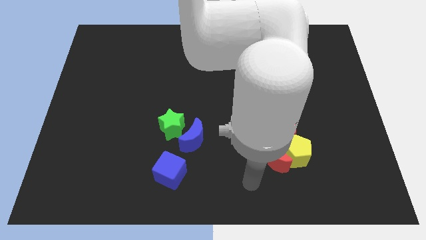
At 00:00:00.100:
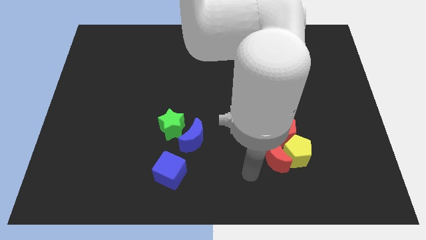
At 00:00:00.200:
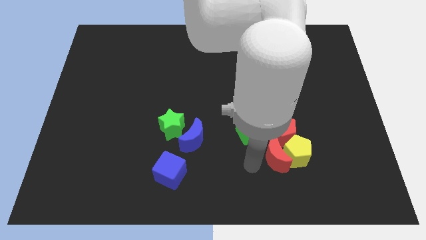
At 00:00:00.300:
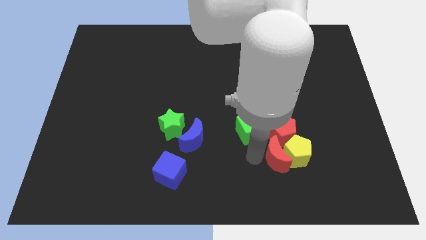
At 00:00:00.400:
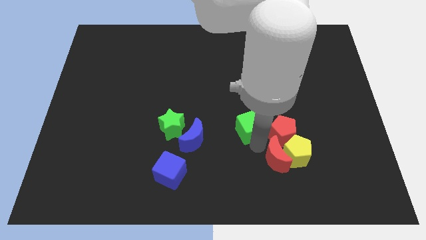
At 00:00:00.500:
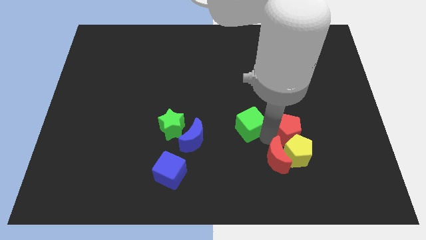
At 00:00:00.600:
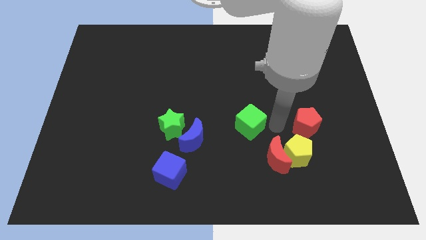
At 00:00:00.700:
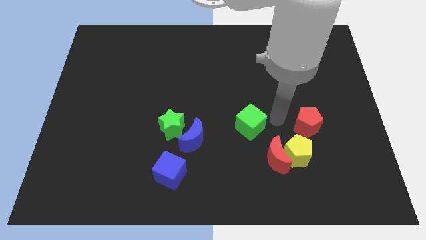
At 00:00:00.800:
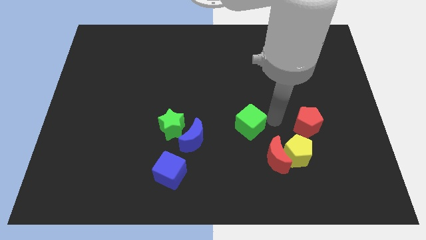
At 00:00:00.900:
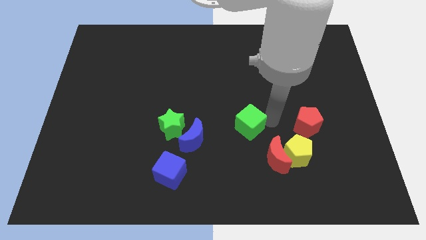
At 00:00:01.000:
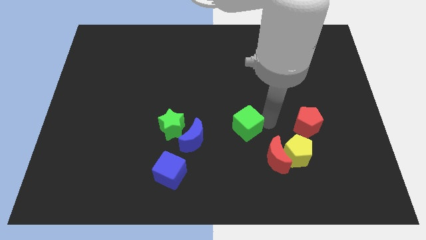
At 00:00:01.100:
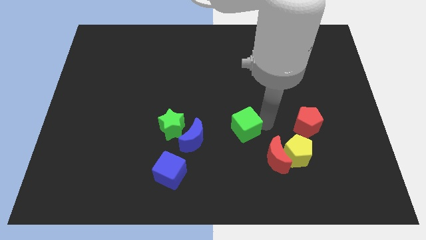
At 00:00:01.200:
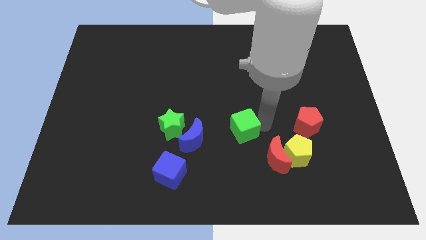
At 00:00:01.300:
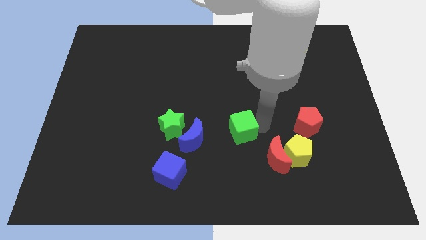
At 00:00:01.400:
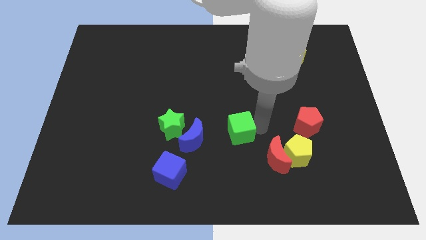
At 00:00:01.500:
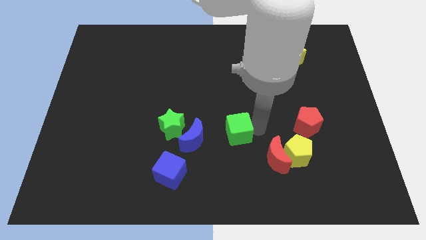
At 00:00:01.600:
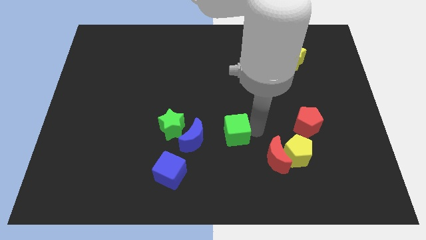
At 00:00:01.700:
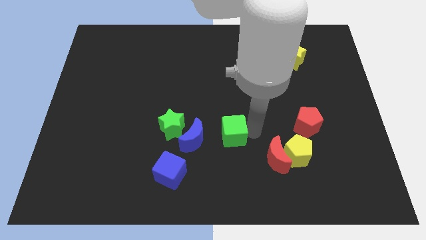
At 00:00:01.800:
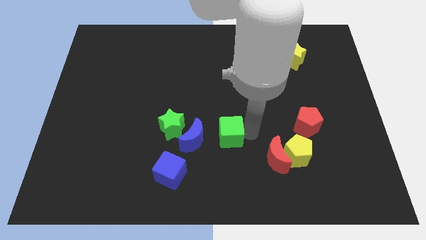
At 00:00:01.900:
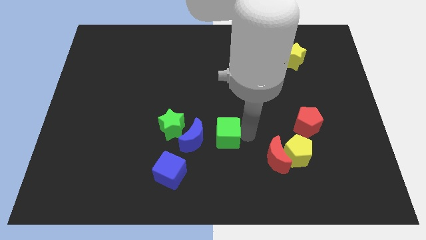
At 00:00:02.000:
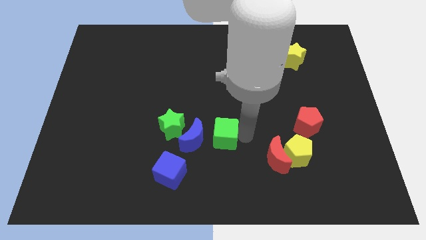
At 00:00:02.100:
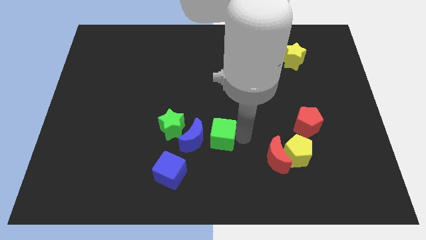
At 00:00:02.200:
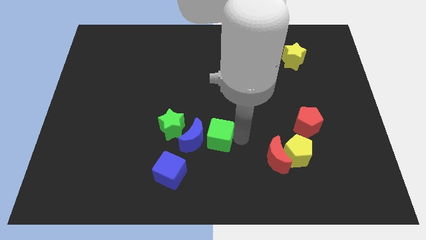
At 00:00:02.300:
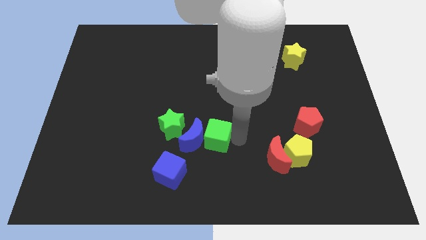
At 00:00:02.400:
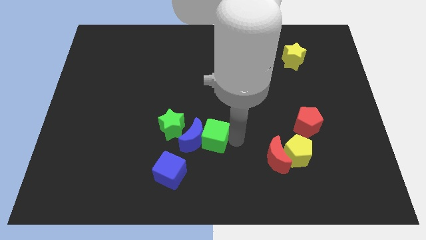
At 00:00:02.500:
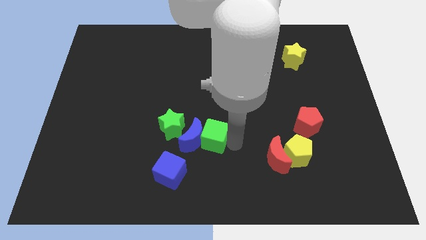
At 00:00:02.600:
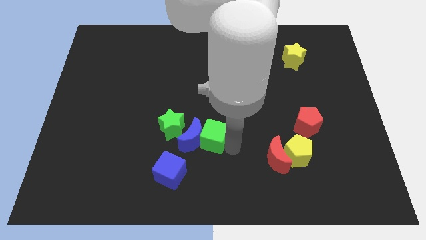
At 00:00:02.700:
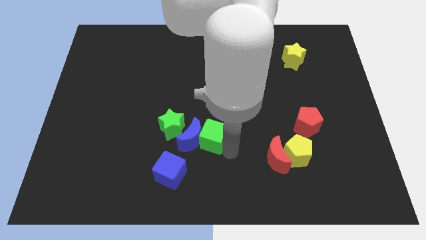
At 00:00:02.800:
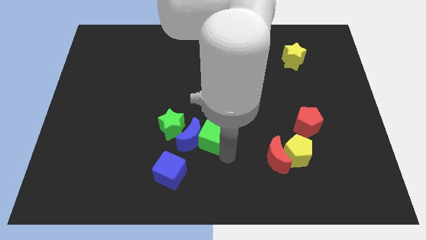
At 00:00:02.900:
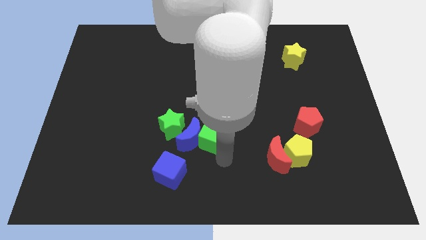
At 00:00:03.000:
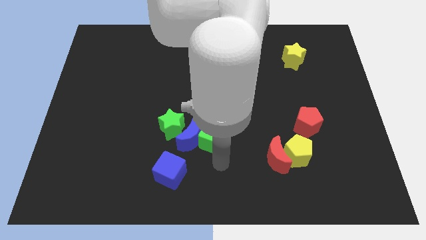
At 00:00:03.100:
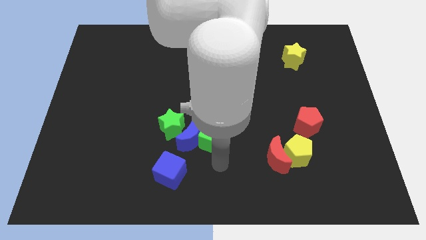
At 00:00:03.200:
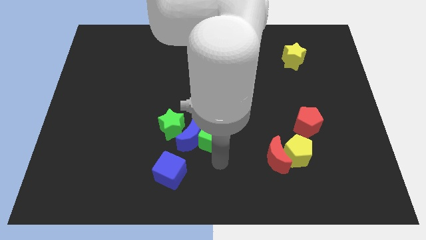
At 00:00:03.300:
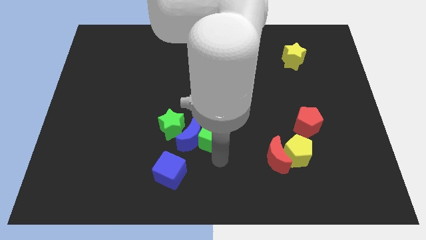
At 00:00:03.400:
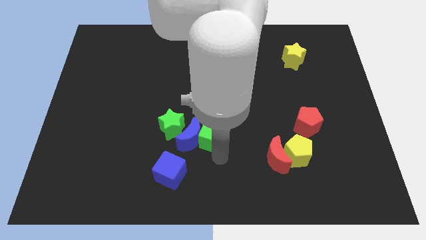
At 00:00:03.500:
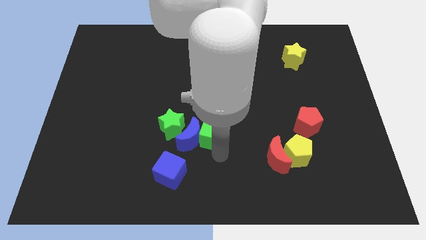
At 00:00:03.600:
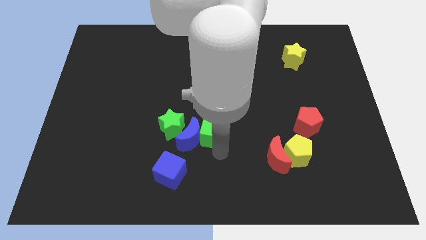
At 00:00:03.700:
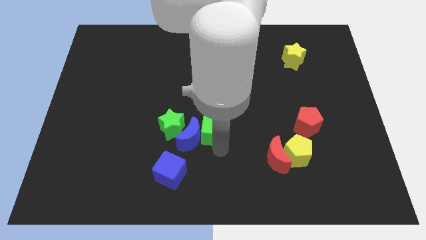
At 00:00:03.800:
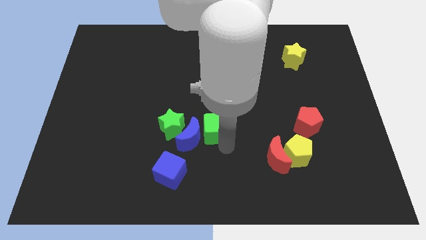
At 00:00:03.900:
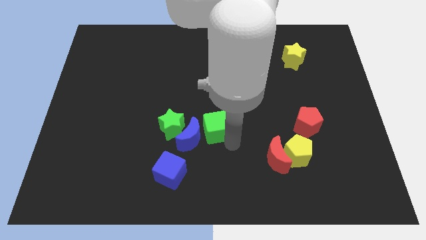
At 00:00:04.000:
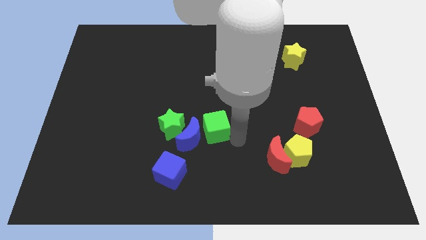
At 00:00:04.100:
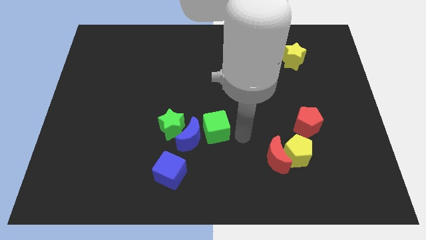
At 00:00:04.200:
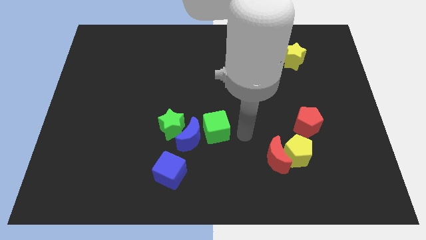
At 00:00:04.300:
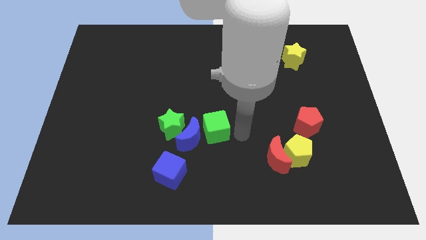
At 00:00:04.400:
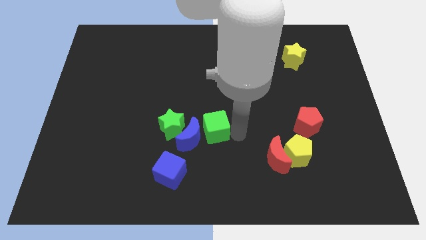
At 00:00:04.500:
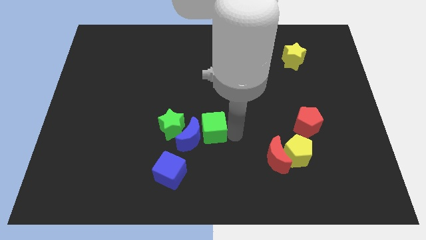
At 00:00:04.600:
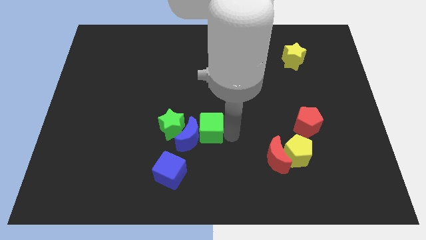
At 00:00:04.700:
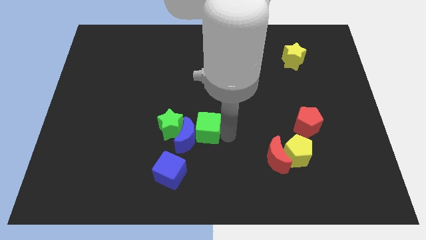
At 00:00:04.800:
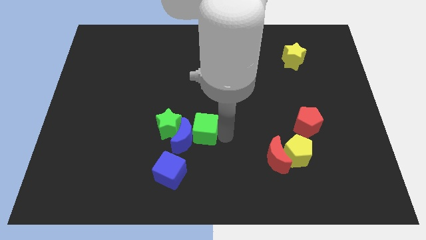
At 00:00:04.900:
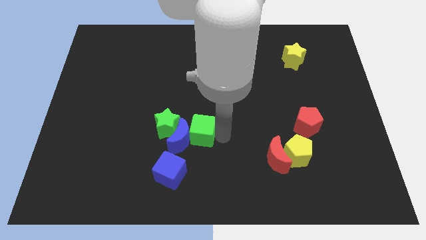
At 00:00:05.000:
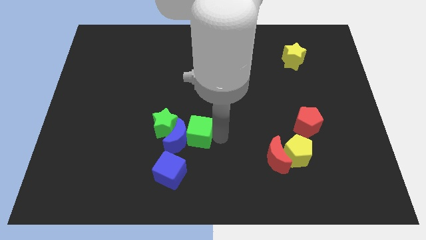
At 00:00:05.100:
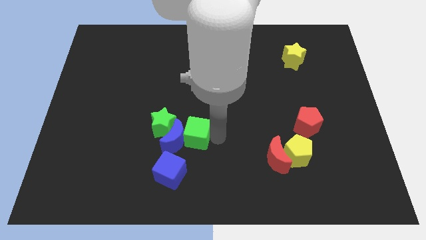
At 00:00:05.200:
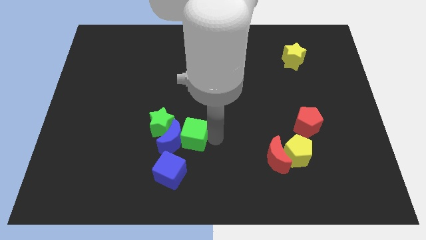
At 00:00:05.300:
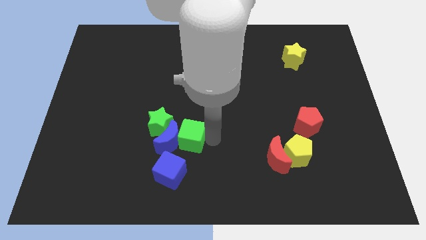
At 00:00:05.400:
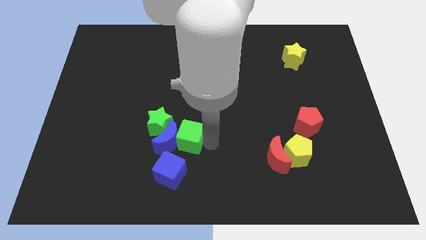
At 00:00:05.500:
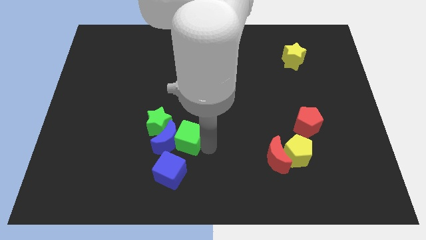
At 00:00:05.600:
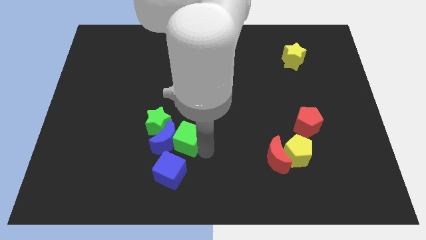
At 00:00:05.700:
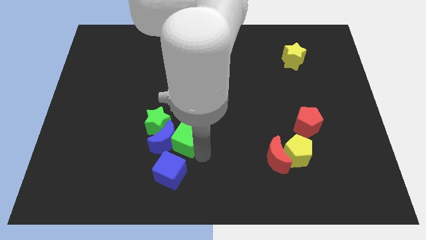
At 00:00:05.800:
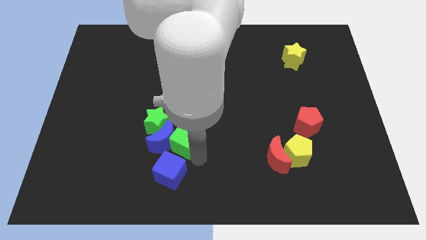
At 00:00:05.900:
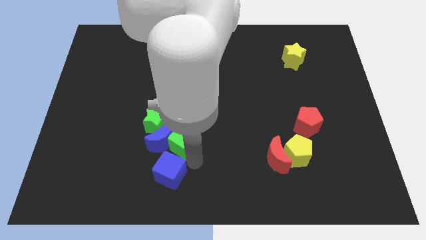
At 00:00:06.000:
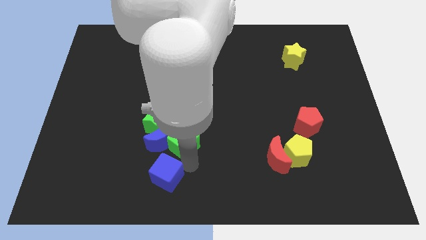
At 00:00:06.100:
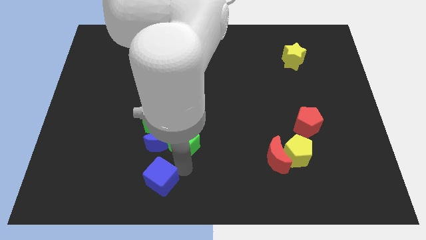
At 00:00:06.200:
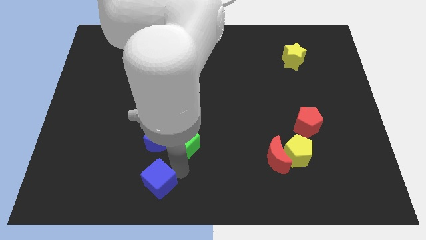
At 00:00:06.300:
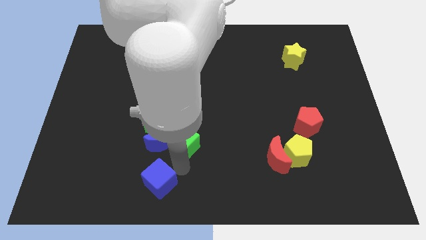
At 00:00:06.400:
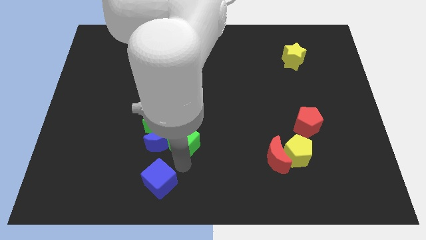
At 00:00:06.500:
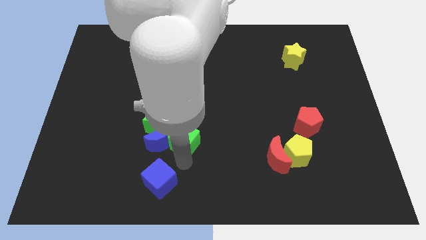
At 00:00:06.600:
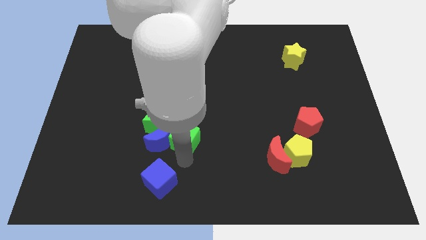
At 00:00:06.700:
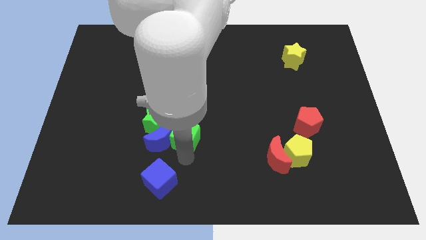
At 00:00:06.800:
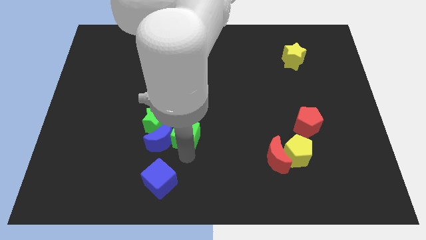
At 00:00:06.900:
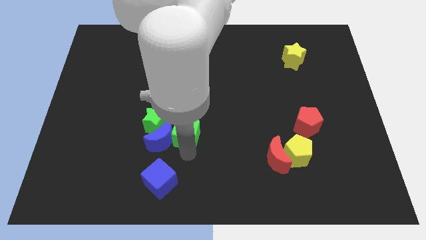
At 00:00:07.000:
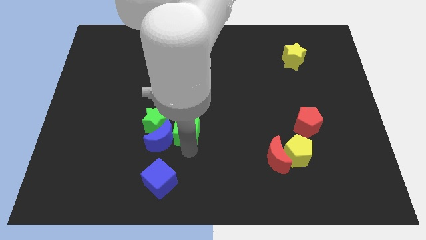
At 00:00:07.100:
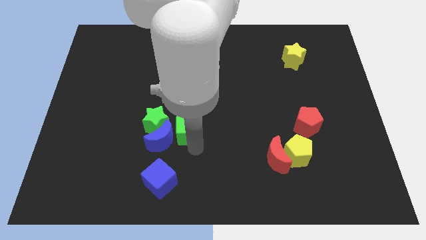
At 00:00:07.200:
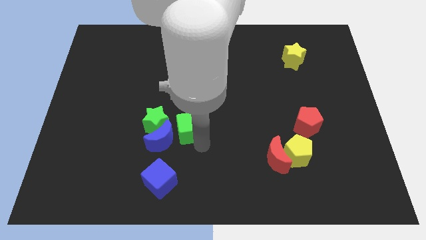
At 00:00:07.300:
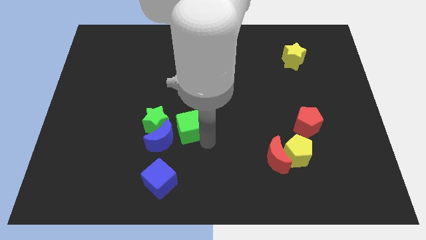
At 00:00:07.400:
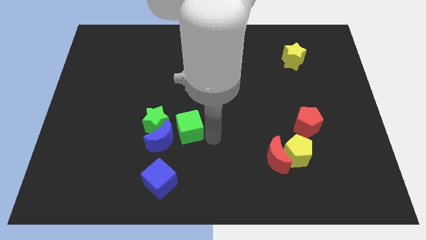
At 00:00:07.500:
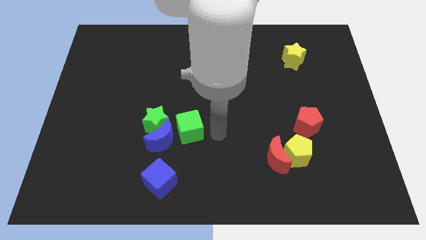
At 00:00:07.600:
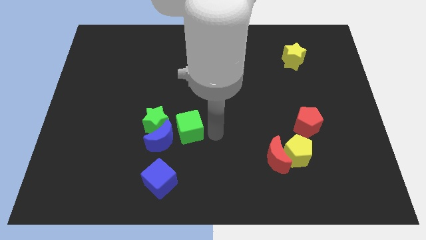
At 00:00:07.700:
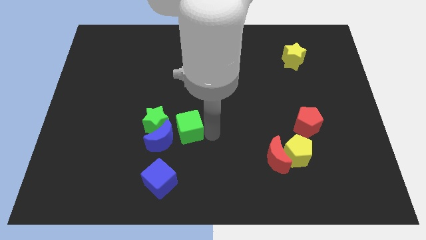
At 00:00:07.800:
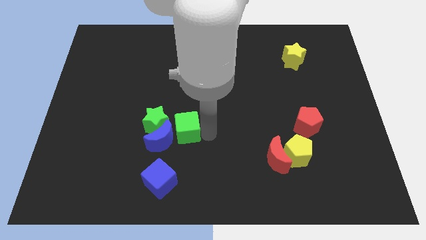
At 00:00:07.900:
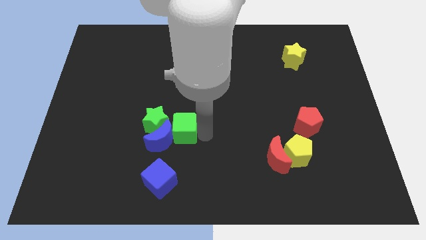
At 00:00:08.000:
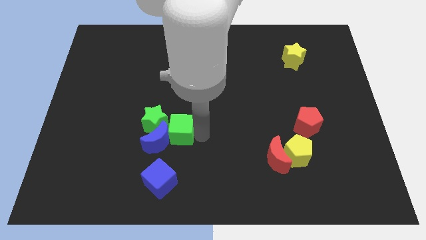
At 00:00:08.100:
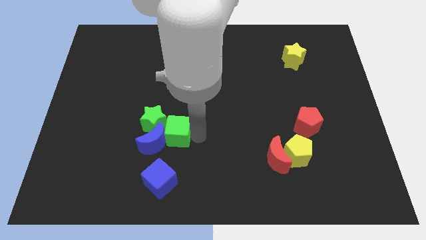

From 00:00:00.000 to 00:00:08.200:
move the green cube next to the green star
